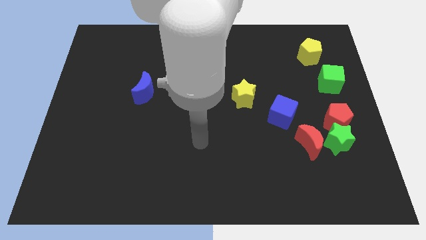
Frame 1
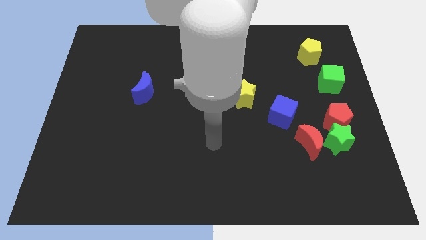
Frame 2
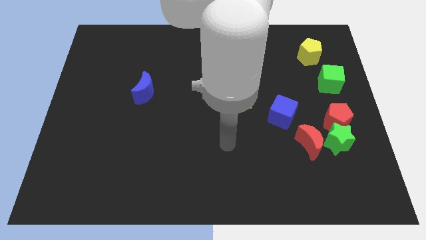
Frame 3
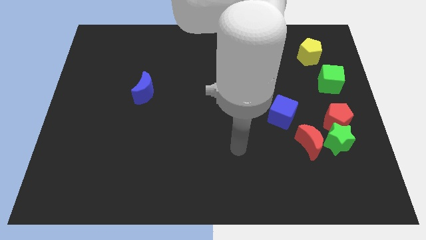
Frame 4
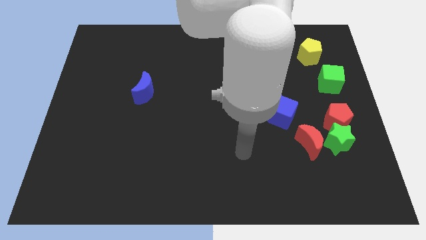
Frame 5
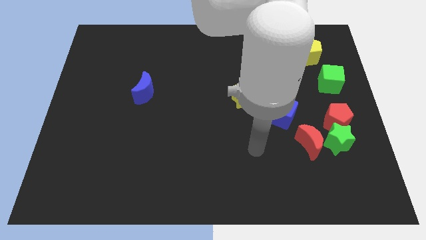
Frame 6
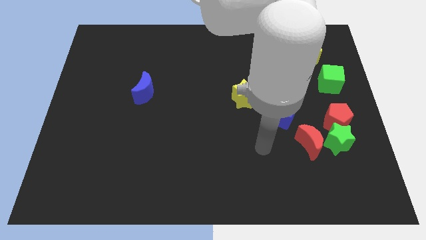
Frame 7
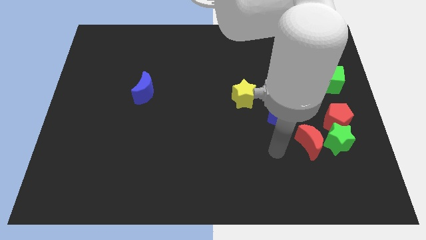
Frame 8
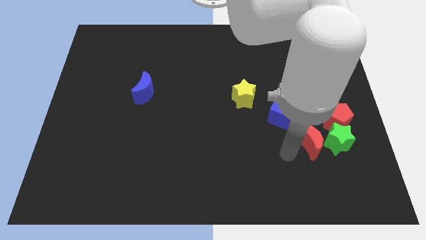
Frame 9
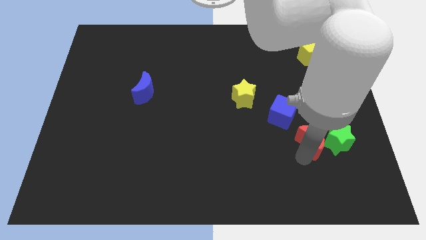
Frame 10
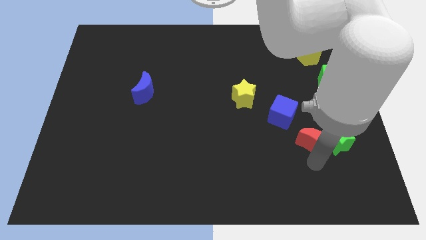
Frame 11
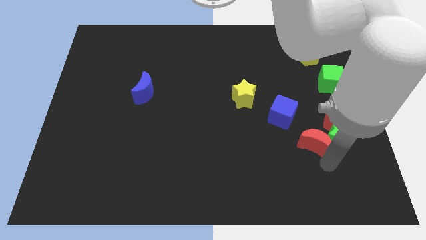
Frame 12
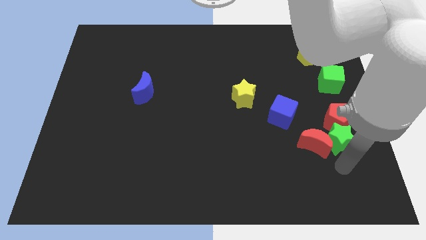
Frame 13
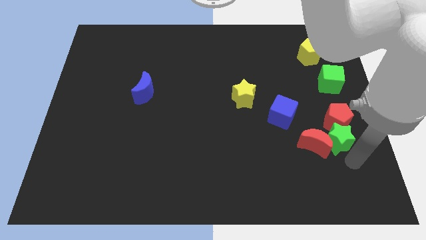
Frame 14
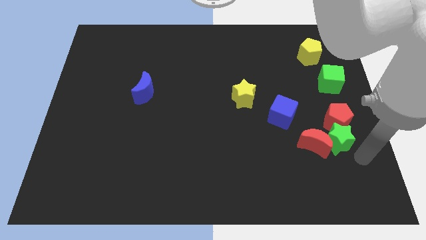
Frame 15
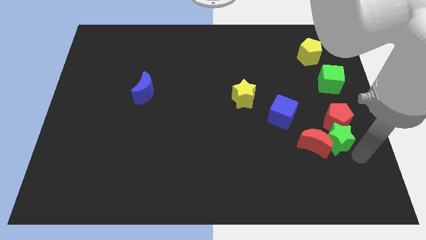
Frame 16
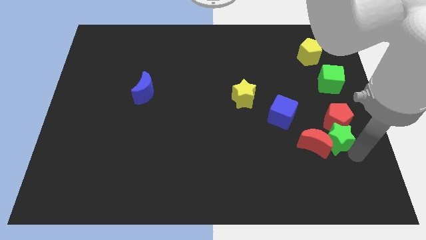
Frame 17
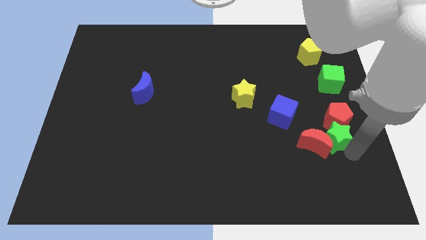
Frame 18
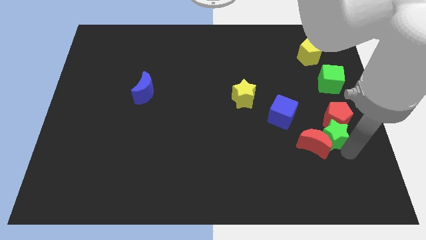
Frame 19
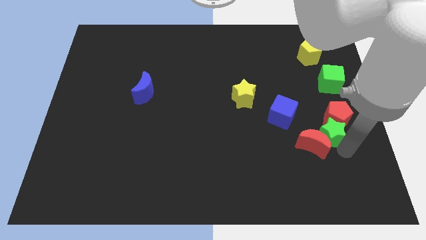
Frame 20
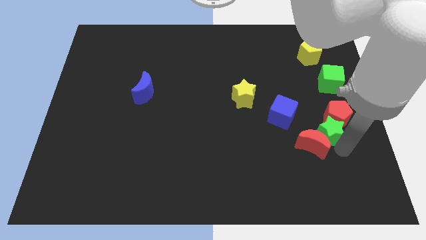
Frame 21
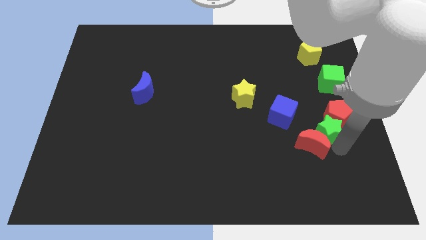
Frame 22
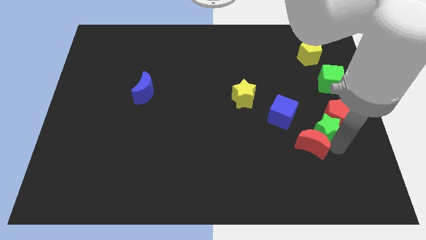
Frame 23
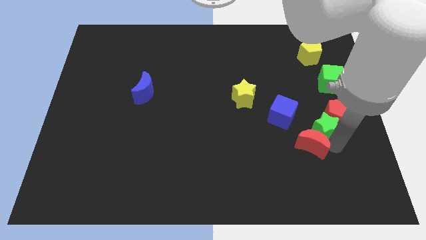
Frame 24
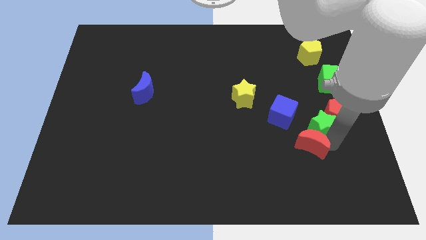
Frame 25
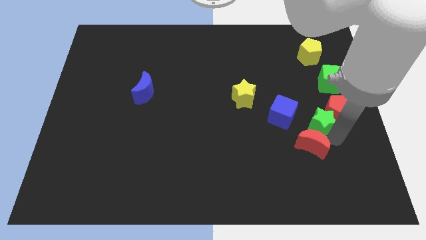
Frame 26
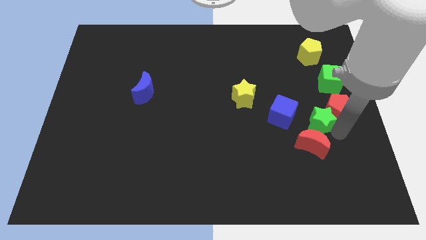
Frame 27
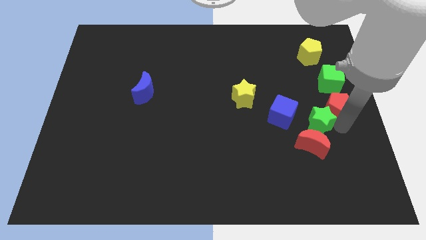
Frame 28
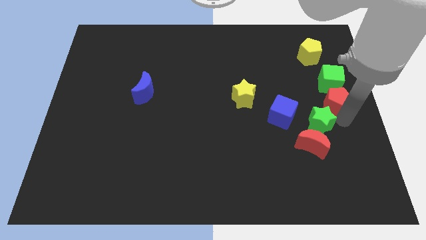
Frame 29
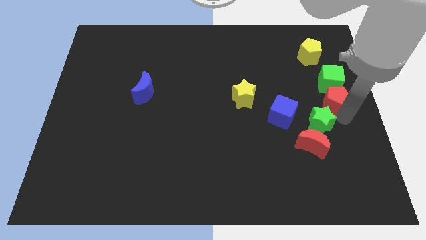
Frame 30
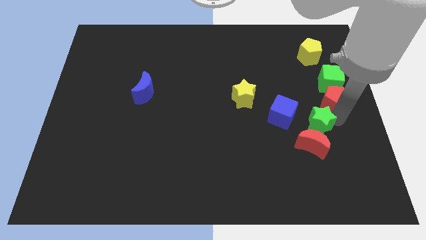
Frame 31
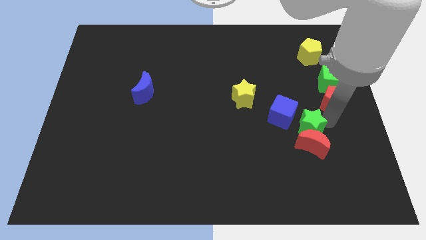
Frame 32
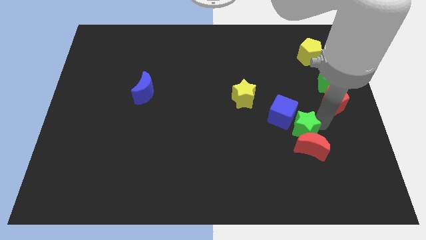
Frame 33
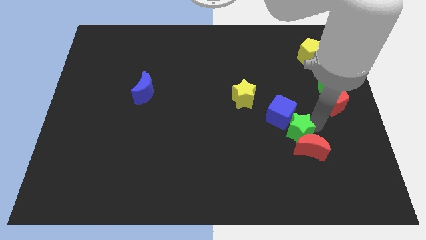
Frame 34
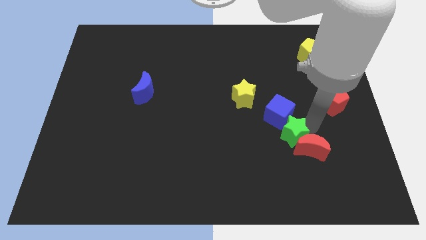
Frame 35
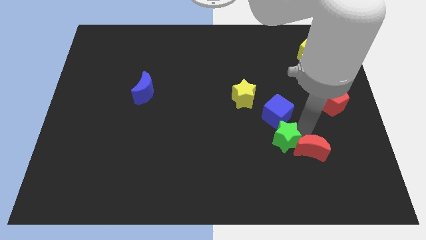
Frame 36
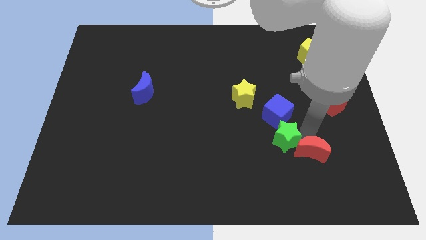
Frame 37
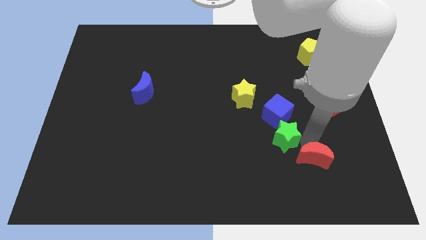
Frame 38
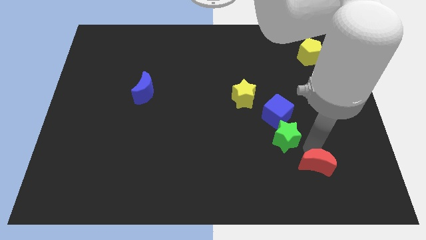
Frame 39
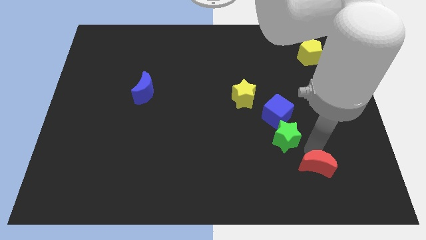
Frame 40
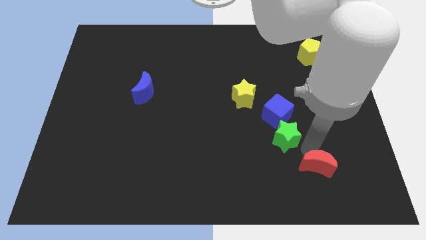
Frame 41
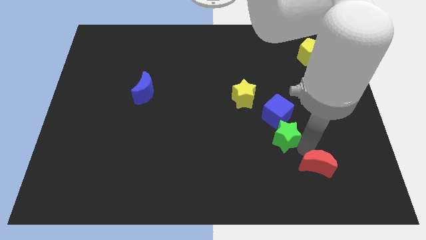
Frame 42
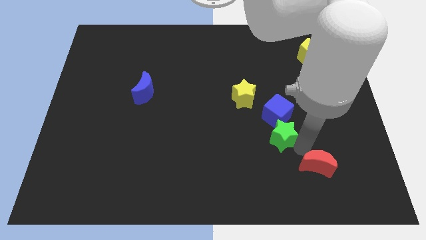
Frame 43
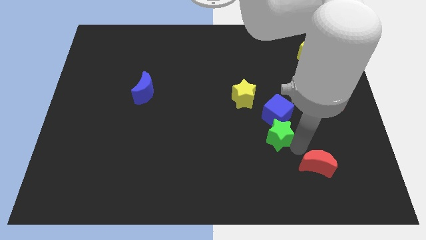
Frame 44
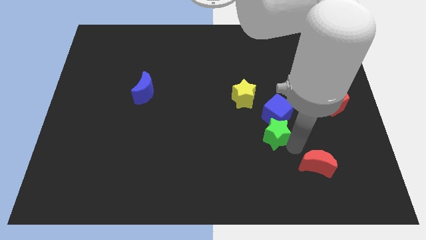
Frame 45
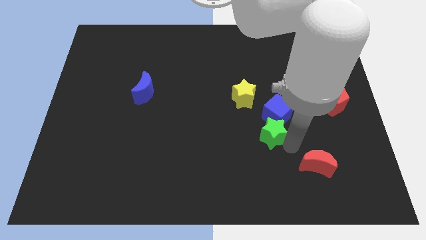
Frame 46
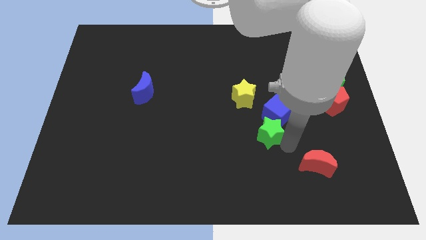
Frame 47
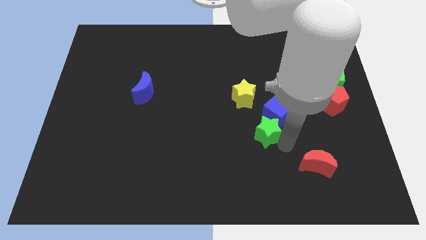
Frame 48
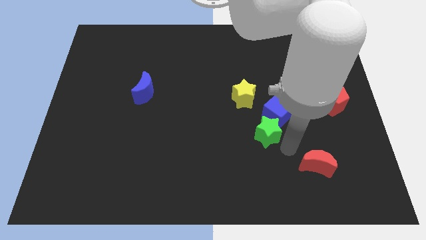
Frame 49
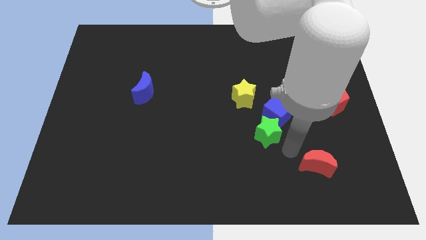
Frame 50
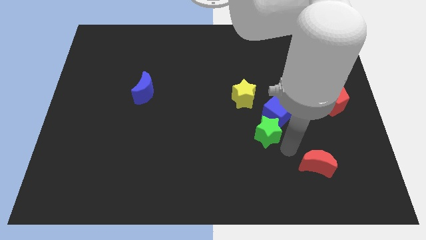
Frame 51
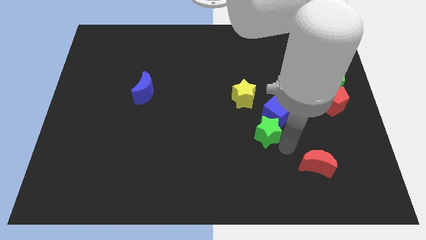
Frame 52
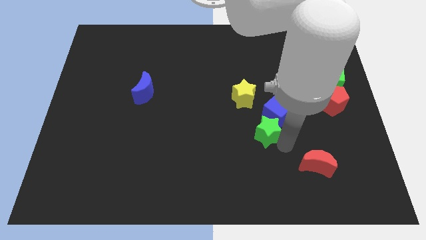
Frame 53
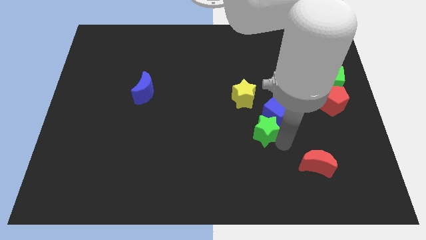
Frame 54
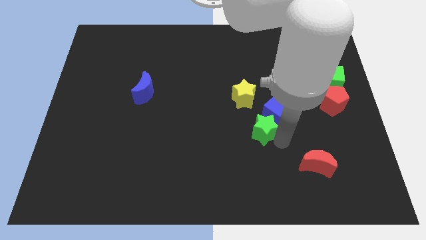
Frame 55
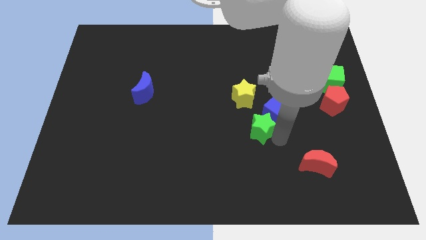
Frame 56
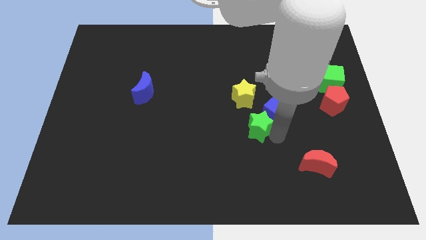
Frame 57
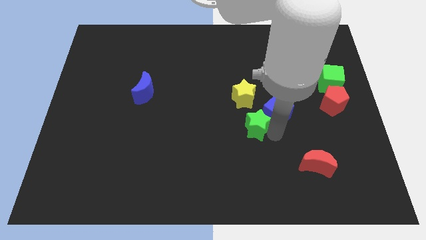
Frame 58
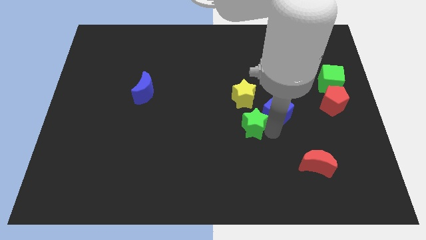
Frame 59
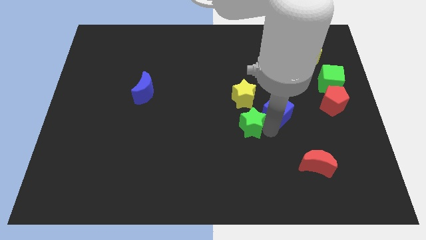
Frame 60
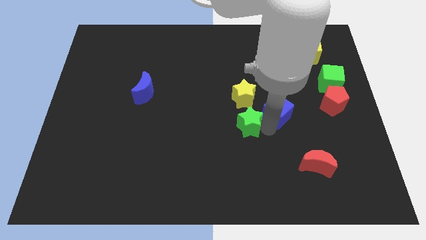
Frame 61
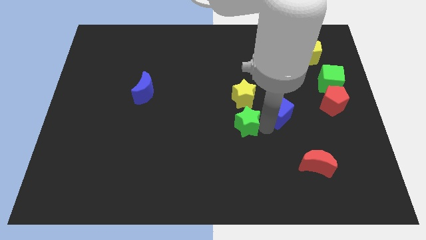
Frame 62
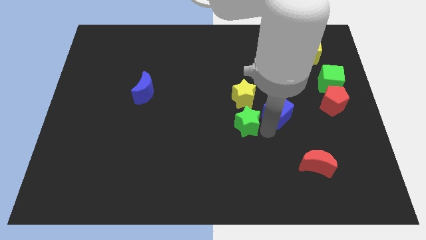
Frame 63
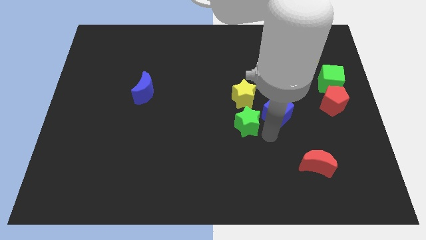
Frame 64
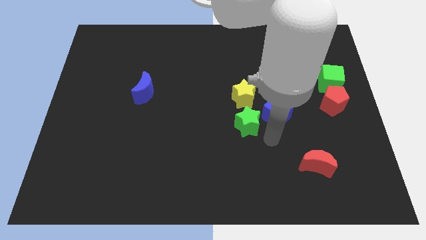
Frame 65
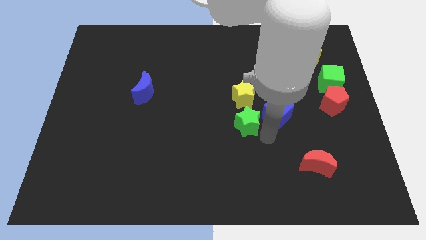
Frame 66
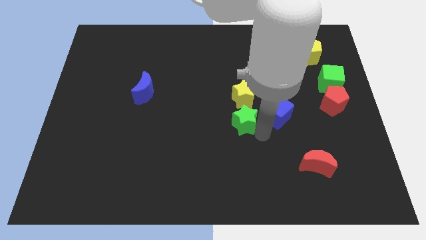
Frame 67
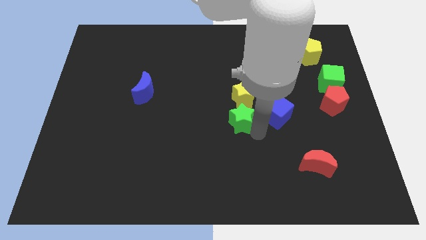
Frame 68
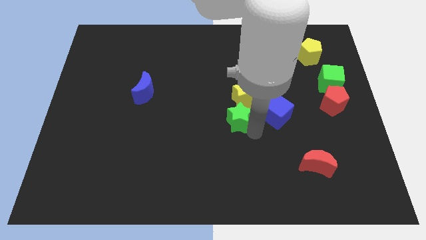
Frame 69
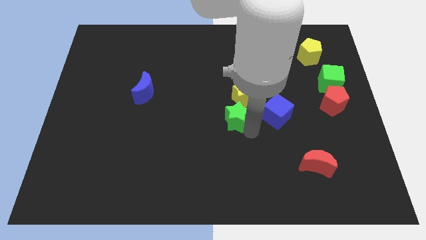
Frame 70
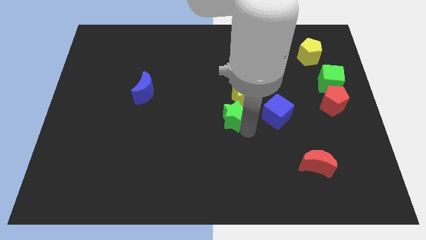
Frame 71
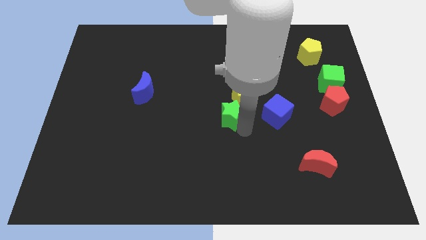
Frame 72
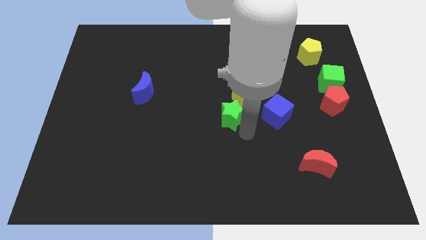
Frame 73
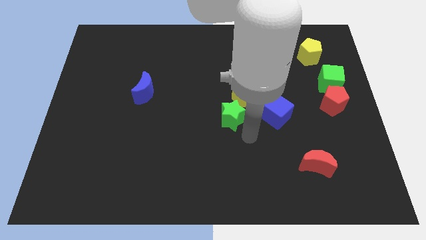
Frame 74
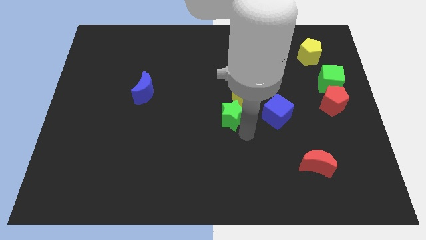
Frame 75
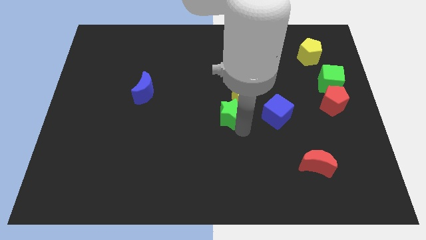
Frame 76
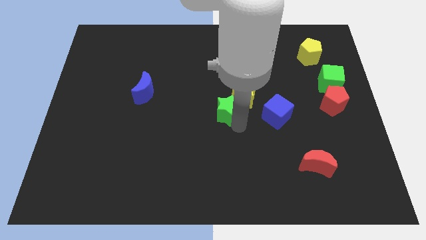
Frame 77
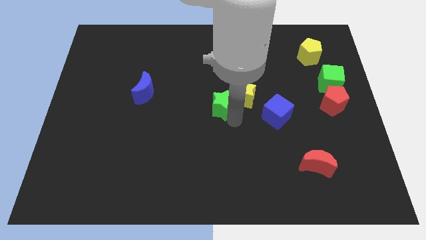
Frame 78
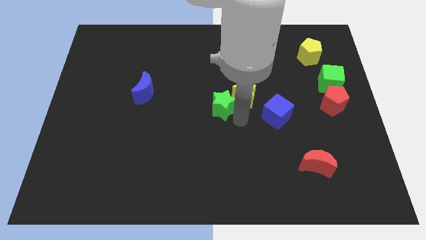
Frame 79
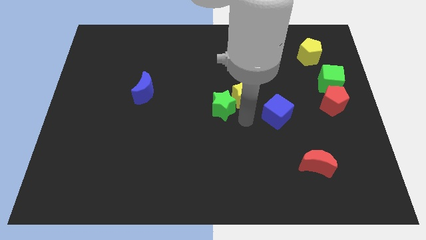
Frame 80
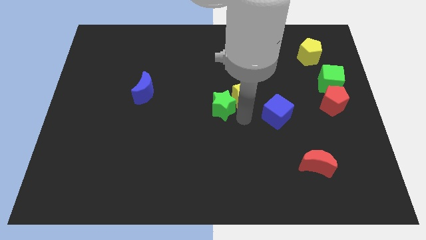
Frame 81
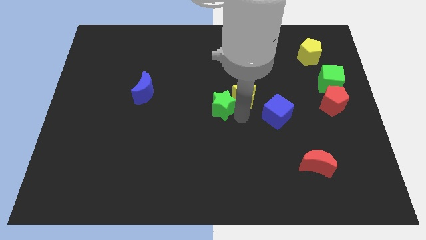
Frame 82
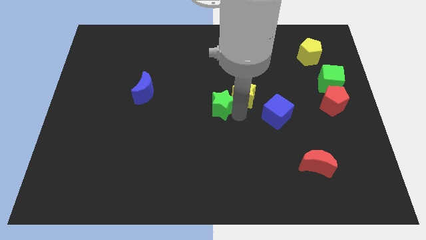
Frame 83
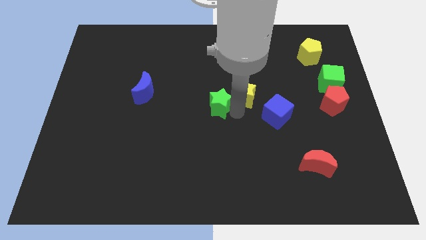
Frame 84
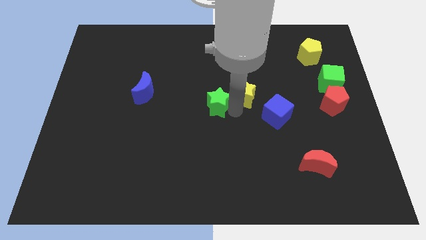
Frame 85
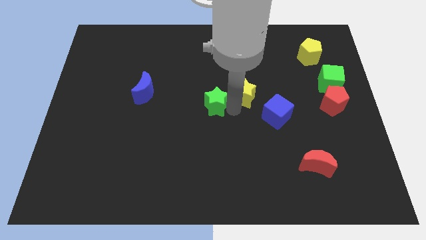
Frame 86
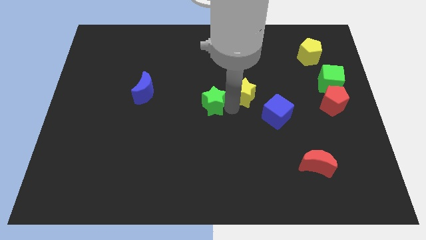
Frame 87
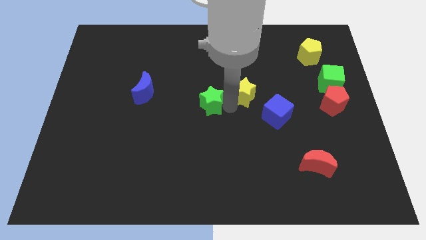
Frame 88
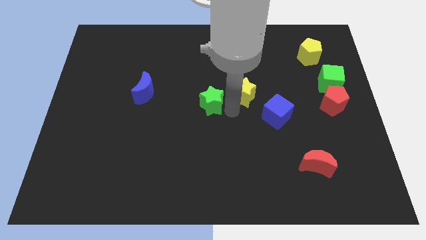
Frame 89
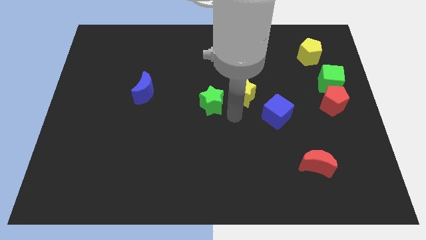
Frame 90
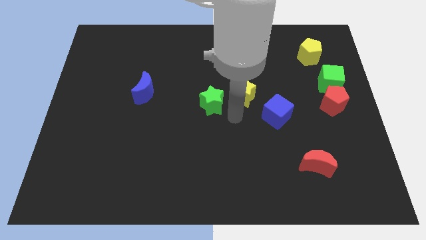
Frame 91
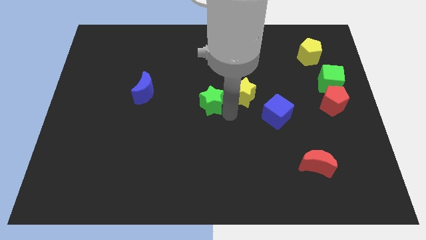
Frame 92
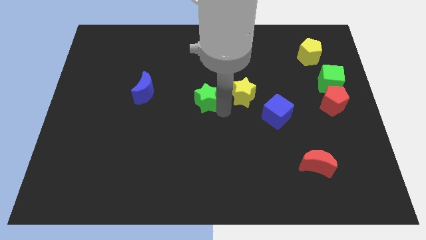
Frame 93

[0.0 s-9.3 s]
move the green star just right of the blue moon
